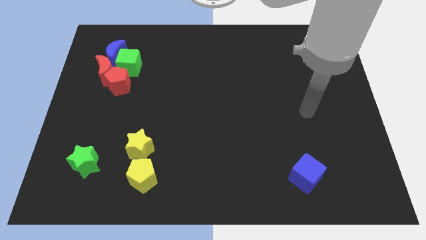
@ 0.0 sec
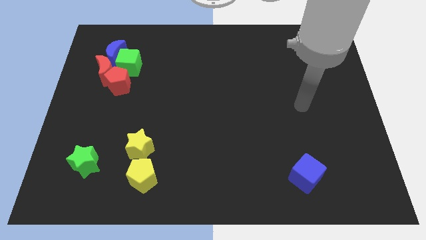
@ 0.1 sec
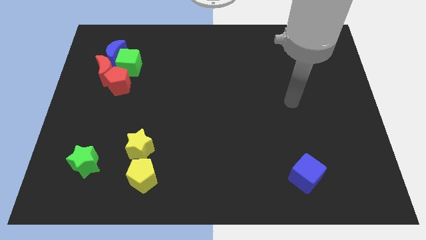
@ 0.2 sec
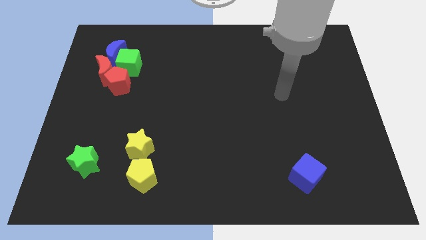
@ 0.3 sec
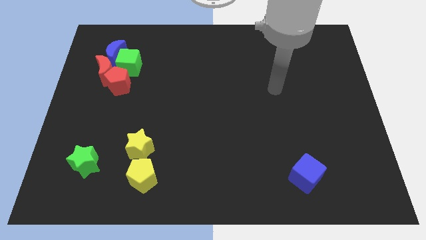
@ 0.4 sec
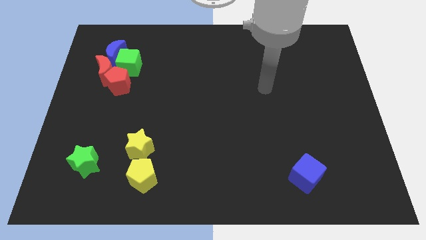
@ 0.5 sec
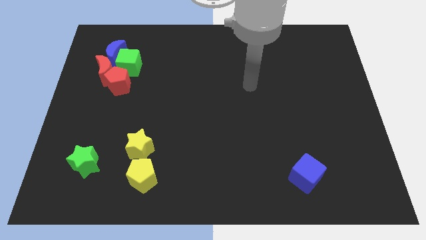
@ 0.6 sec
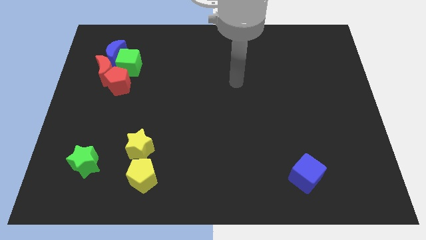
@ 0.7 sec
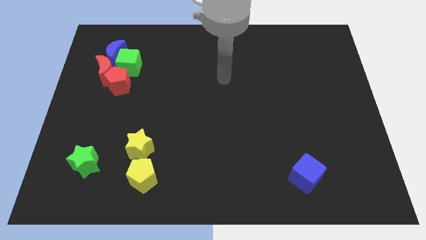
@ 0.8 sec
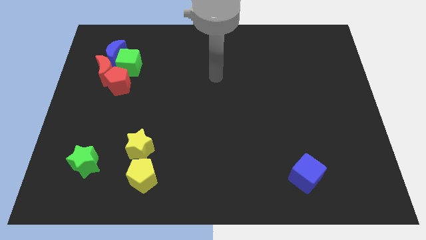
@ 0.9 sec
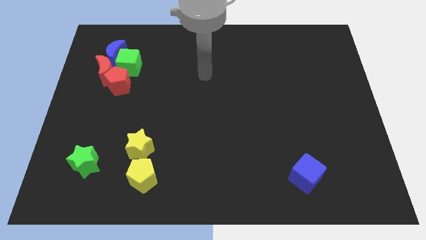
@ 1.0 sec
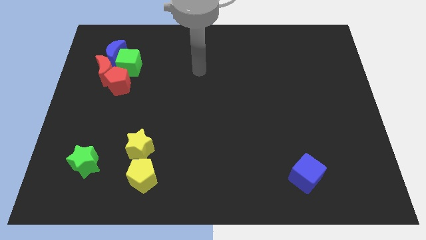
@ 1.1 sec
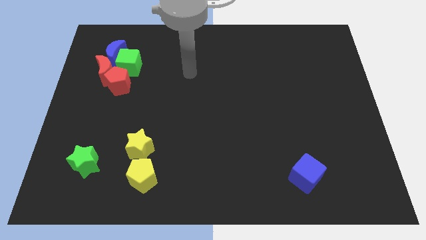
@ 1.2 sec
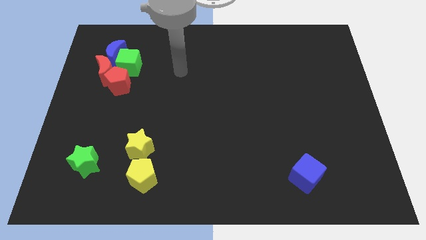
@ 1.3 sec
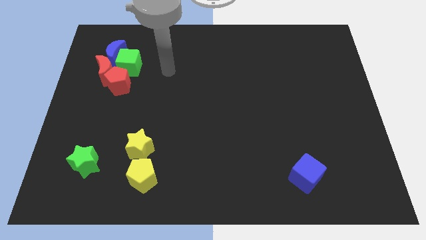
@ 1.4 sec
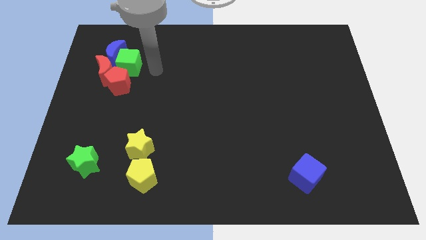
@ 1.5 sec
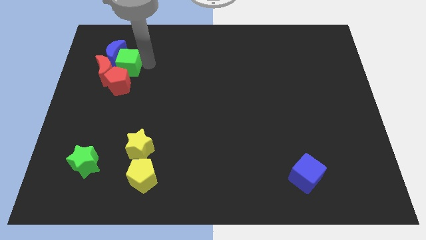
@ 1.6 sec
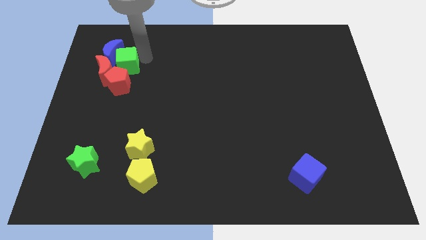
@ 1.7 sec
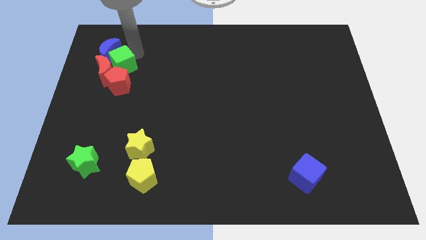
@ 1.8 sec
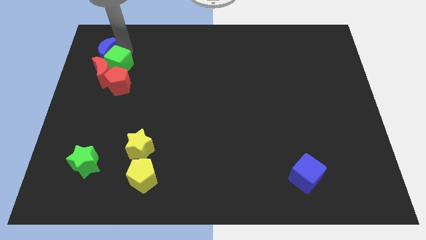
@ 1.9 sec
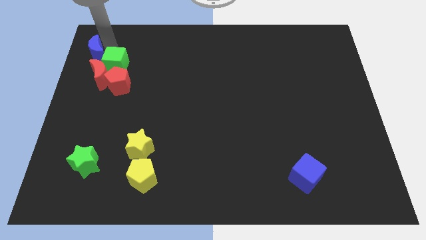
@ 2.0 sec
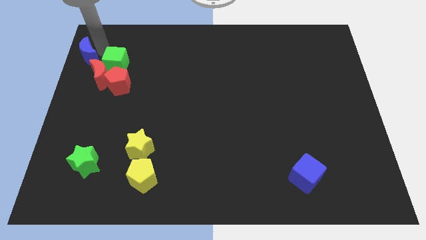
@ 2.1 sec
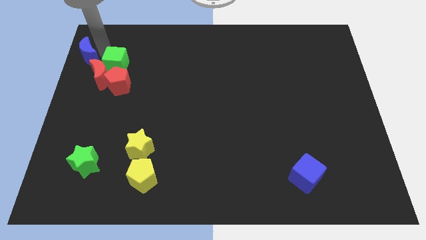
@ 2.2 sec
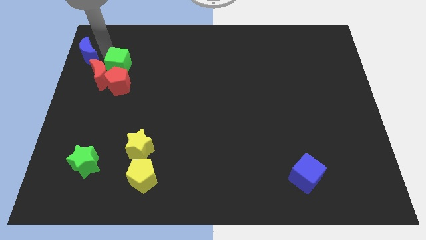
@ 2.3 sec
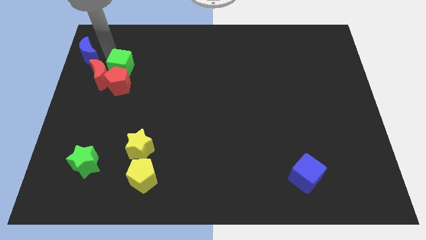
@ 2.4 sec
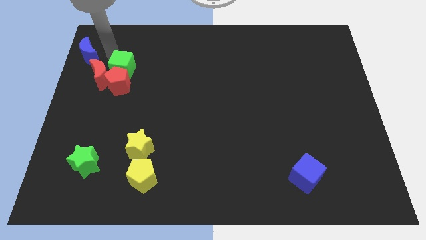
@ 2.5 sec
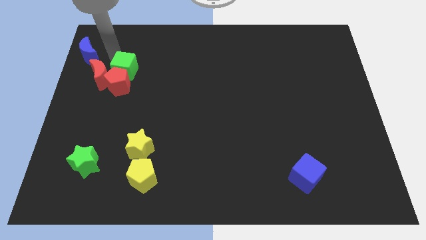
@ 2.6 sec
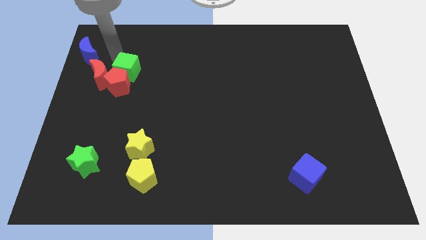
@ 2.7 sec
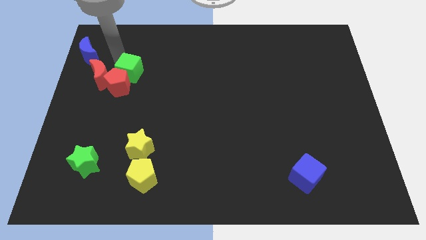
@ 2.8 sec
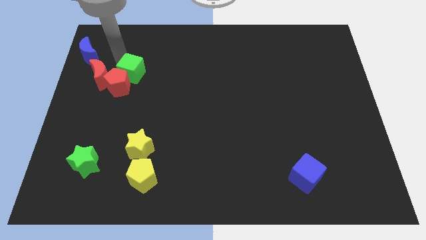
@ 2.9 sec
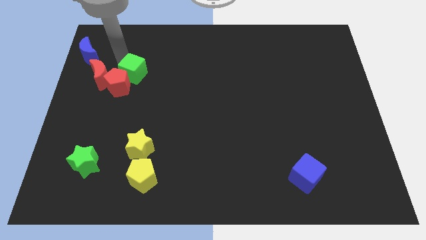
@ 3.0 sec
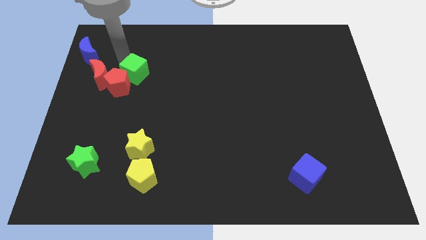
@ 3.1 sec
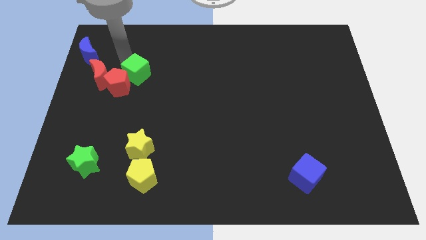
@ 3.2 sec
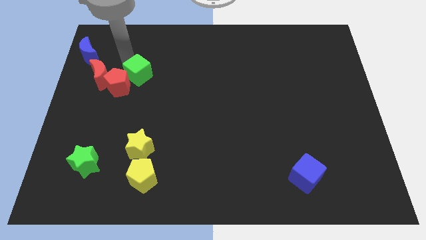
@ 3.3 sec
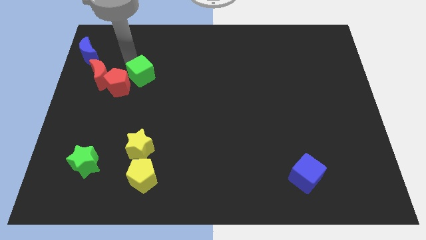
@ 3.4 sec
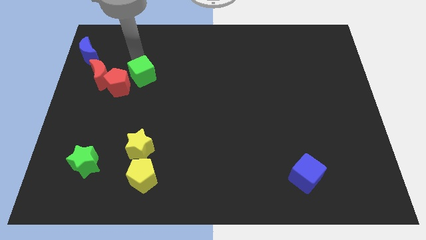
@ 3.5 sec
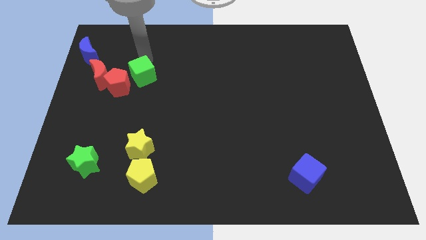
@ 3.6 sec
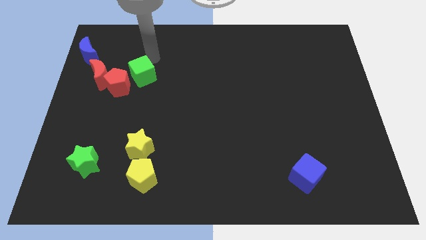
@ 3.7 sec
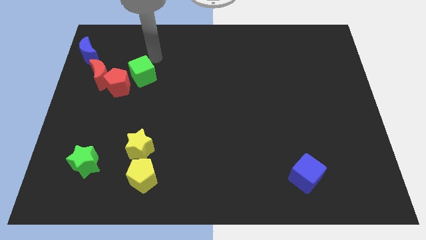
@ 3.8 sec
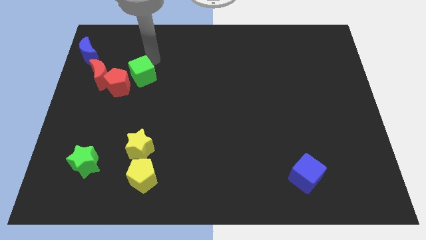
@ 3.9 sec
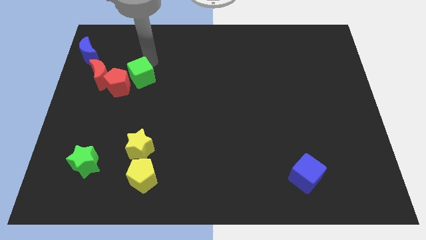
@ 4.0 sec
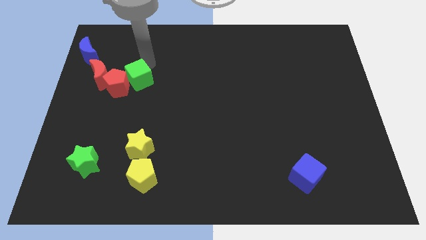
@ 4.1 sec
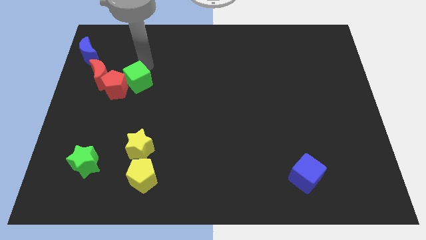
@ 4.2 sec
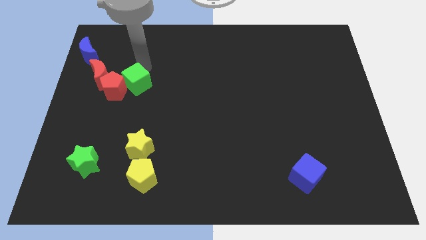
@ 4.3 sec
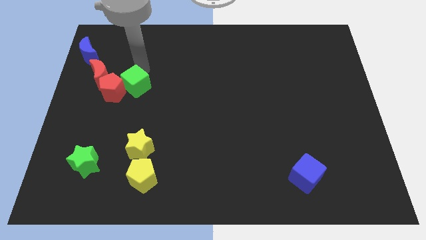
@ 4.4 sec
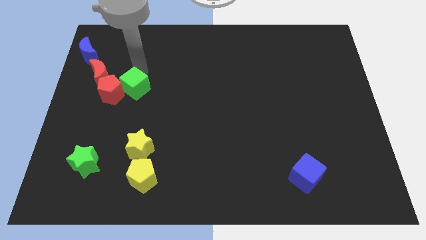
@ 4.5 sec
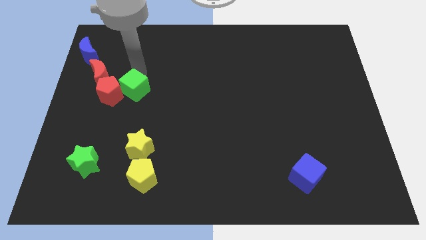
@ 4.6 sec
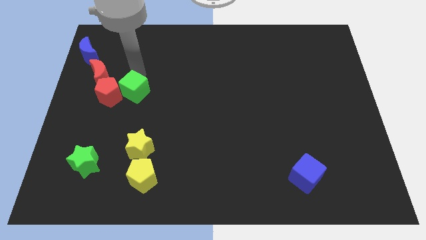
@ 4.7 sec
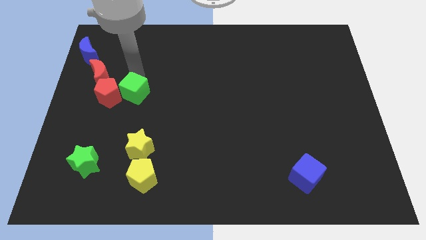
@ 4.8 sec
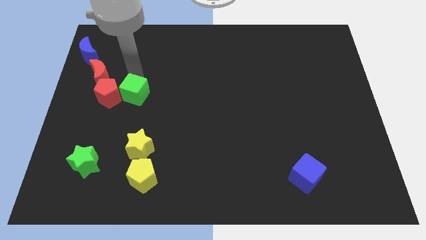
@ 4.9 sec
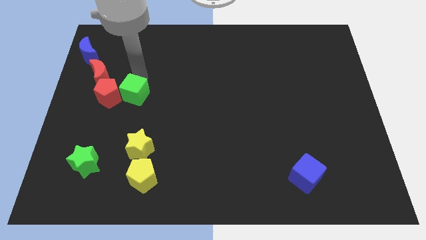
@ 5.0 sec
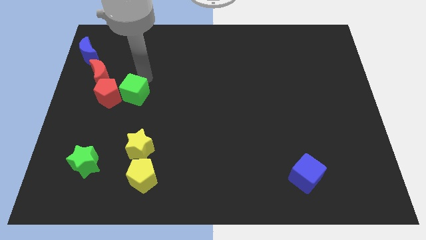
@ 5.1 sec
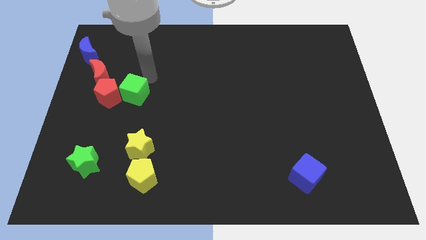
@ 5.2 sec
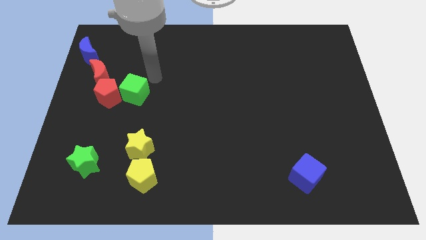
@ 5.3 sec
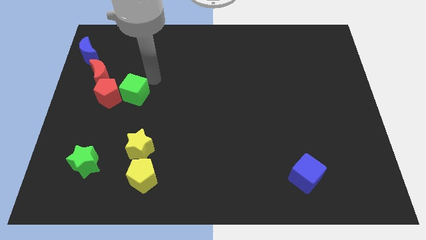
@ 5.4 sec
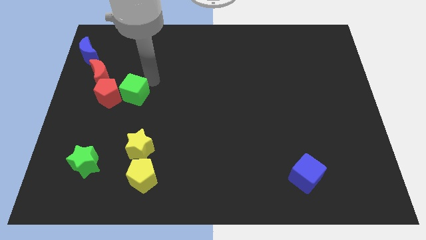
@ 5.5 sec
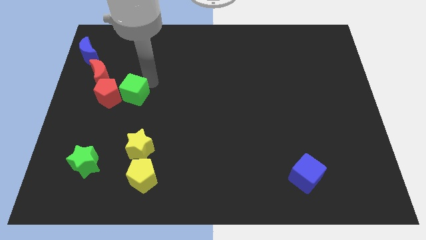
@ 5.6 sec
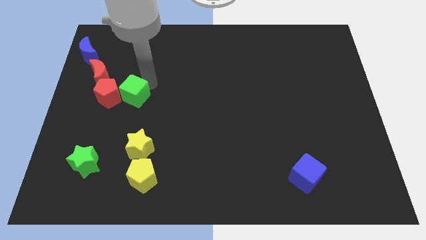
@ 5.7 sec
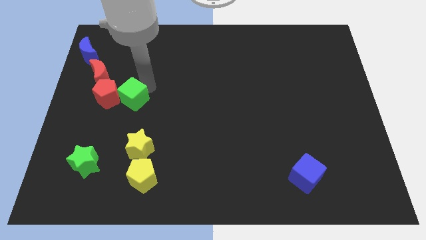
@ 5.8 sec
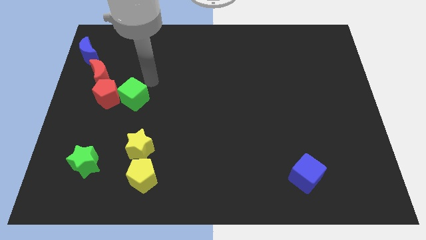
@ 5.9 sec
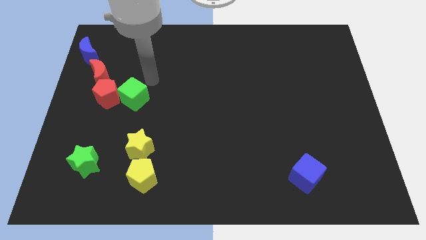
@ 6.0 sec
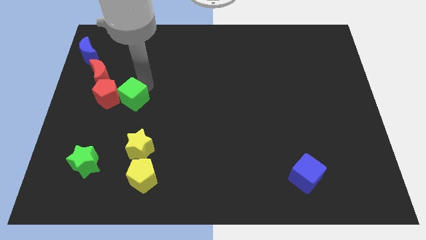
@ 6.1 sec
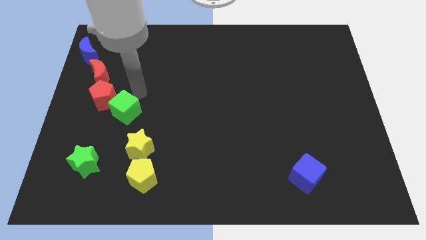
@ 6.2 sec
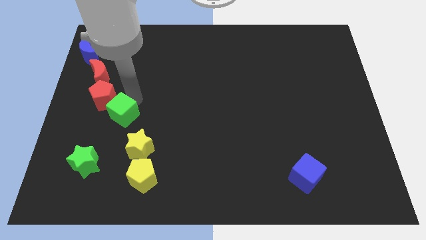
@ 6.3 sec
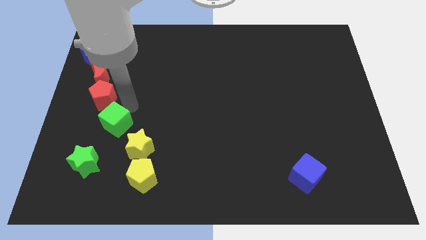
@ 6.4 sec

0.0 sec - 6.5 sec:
slide the green cube below the red pentagon

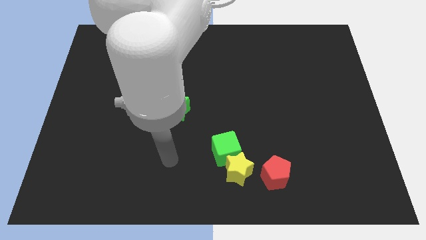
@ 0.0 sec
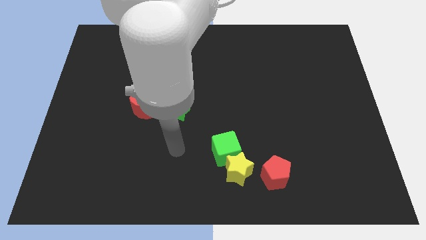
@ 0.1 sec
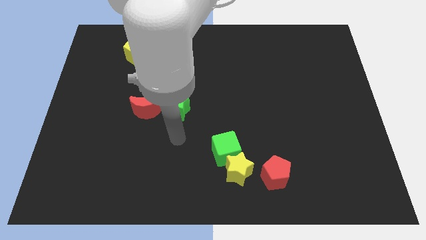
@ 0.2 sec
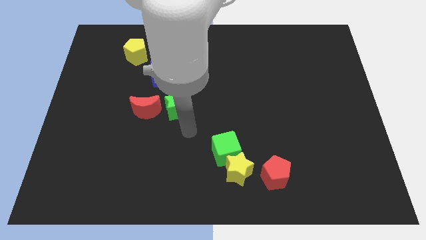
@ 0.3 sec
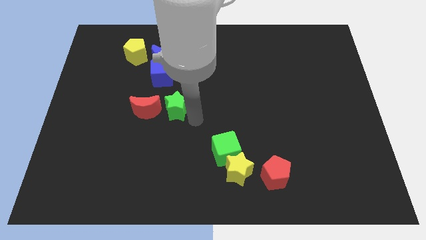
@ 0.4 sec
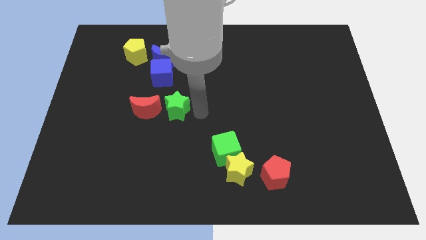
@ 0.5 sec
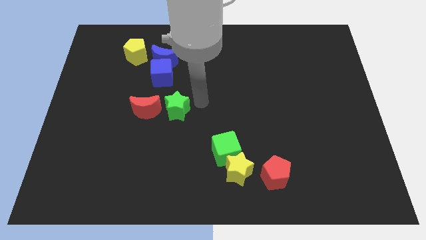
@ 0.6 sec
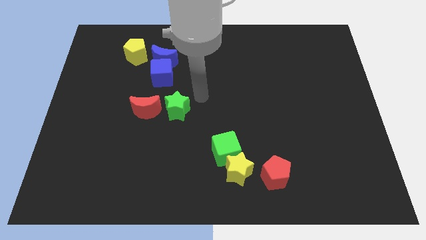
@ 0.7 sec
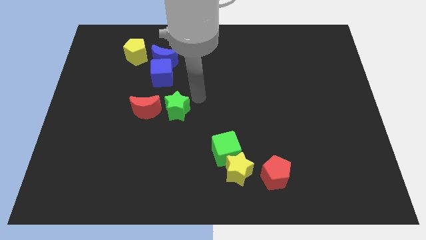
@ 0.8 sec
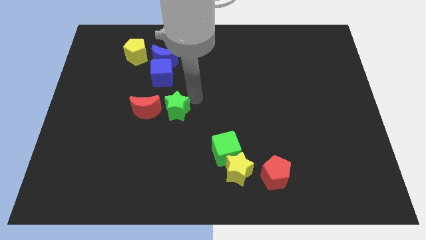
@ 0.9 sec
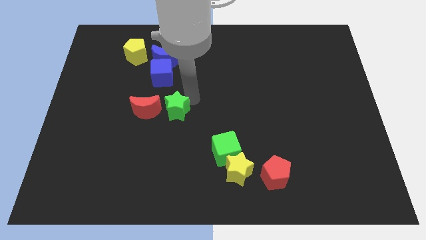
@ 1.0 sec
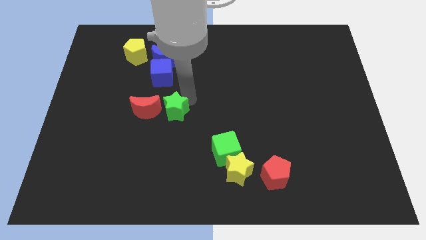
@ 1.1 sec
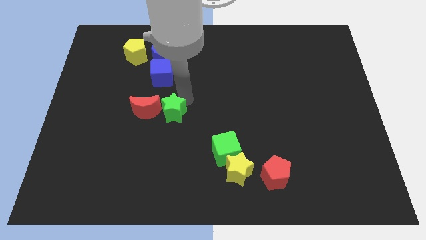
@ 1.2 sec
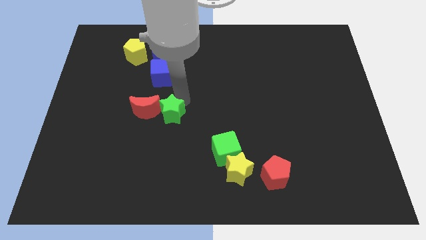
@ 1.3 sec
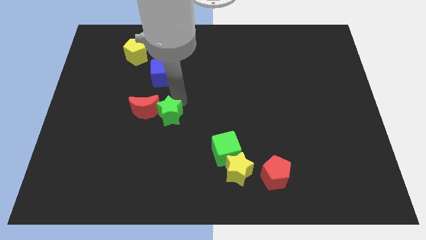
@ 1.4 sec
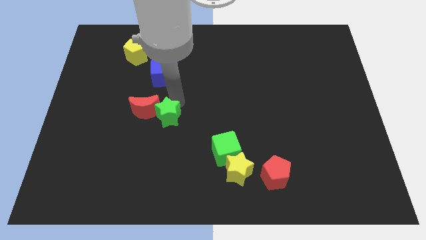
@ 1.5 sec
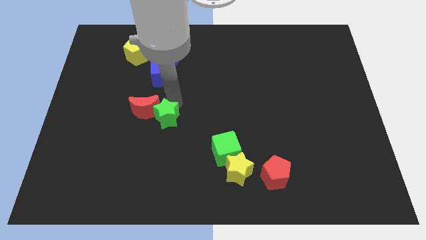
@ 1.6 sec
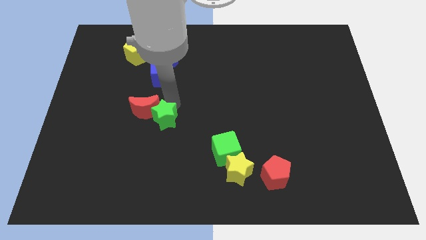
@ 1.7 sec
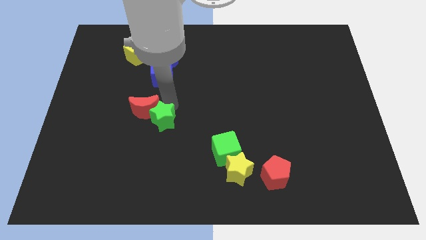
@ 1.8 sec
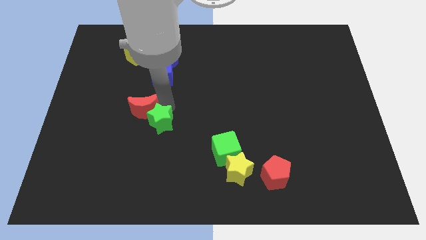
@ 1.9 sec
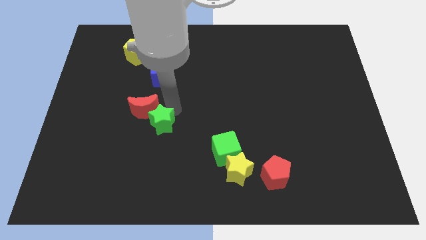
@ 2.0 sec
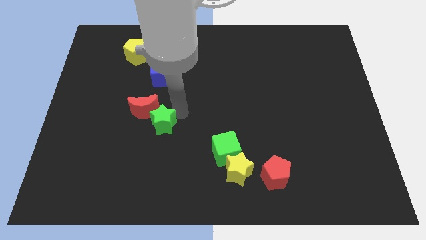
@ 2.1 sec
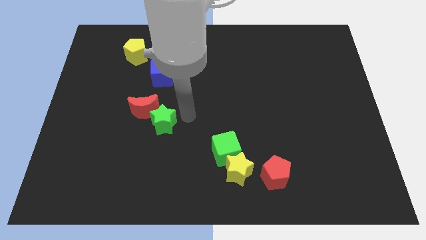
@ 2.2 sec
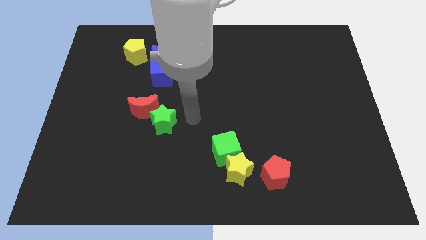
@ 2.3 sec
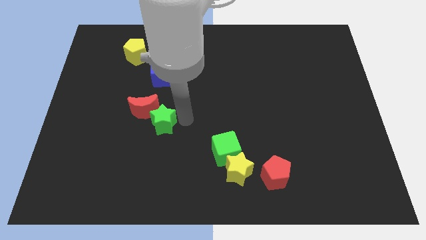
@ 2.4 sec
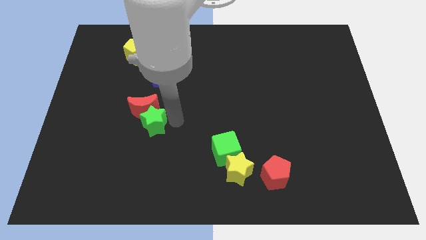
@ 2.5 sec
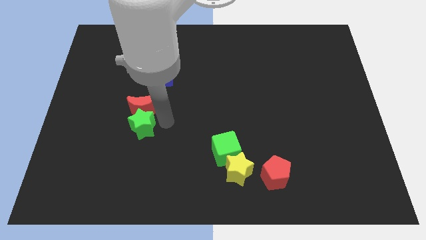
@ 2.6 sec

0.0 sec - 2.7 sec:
move the green star to the bottom left side of the red moon
